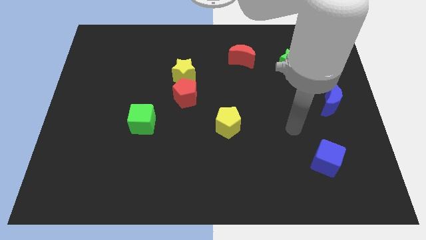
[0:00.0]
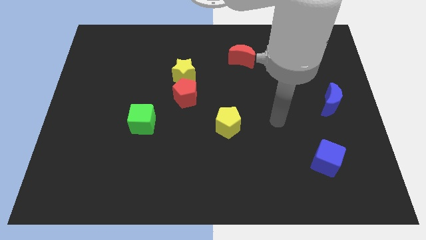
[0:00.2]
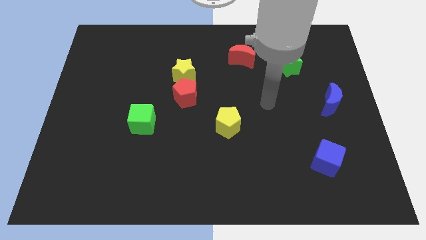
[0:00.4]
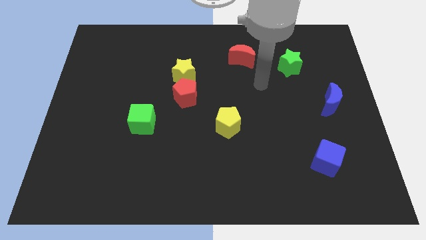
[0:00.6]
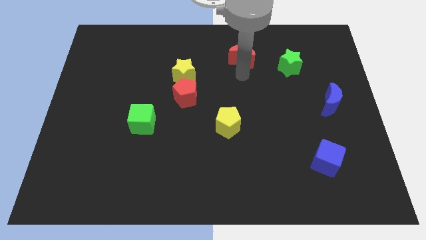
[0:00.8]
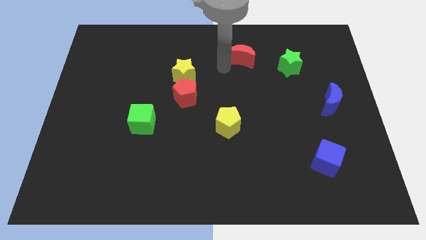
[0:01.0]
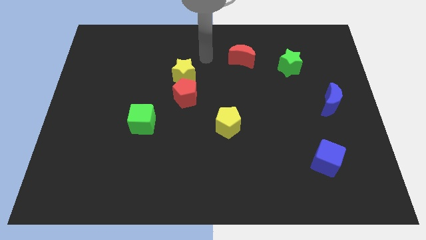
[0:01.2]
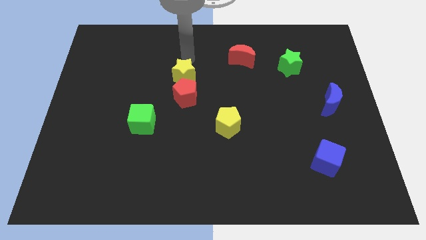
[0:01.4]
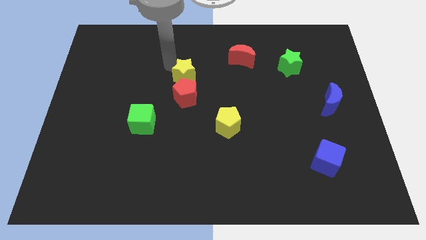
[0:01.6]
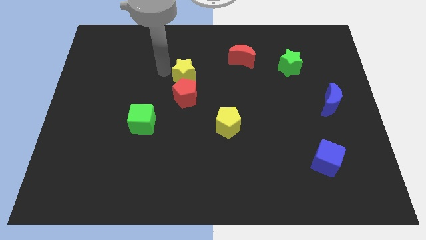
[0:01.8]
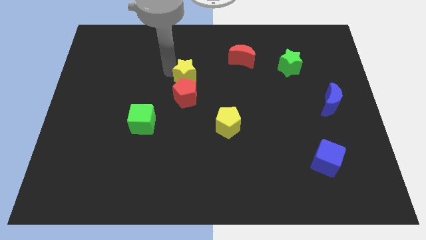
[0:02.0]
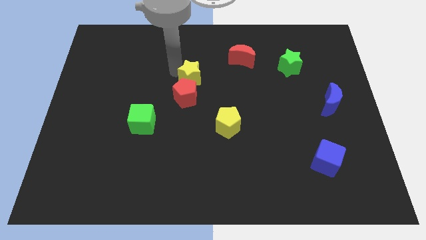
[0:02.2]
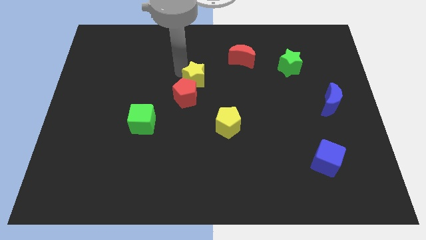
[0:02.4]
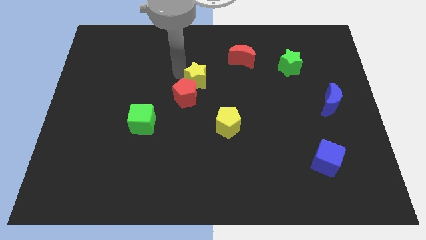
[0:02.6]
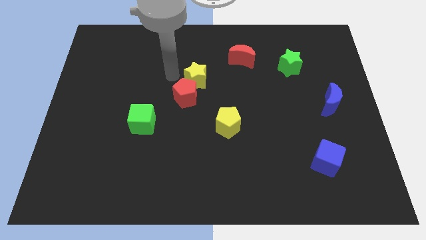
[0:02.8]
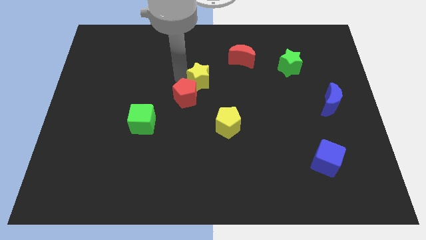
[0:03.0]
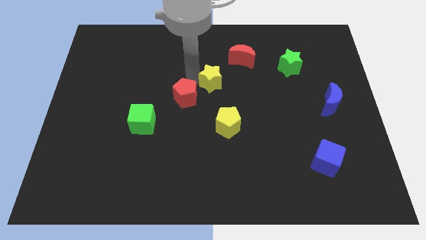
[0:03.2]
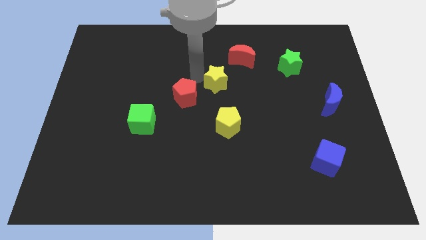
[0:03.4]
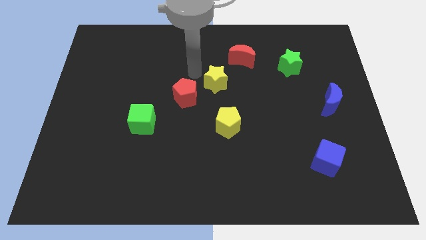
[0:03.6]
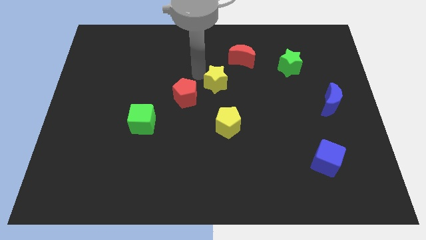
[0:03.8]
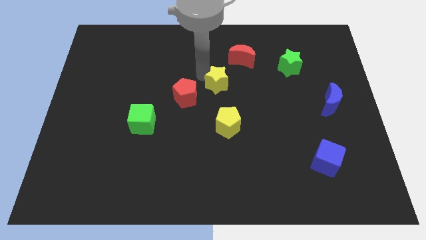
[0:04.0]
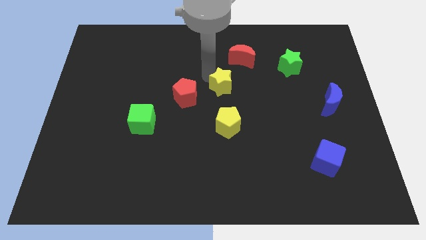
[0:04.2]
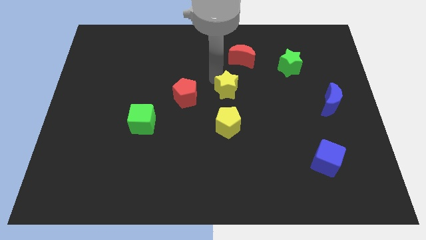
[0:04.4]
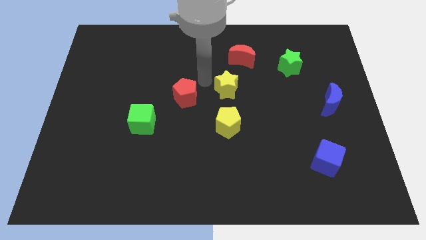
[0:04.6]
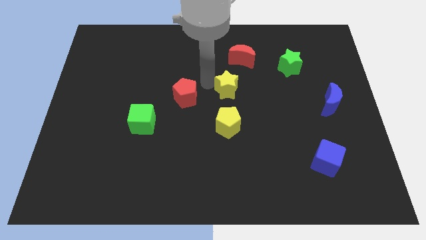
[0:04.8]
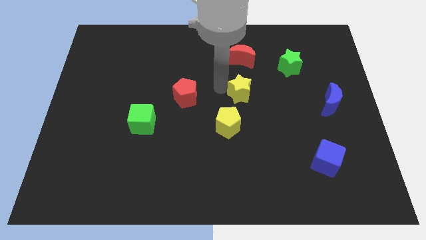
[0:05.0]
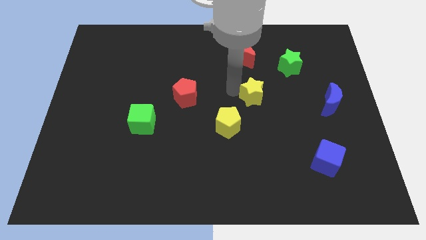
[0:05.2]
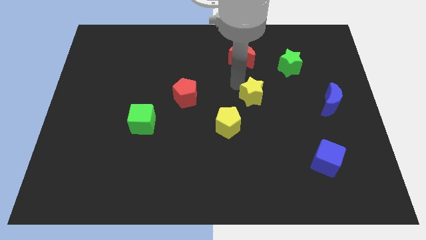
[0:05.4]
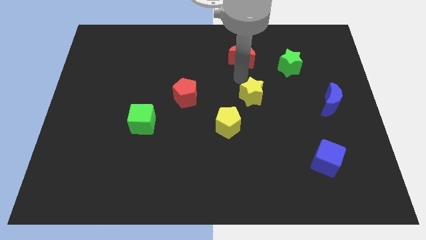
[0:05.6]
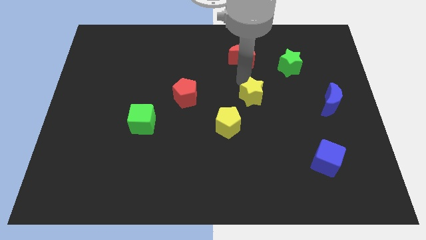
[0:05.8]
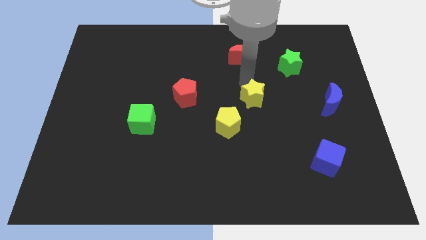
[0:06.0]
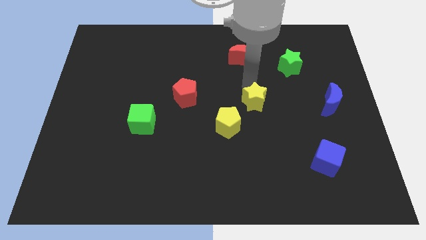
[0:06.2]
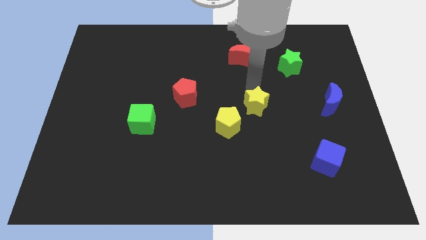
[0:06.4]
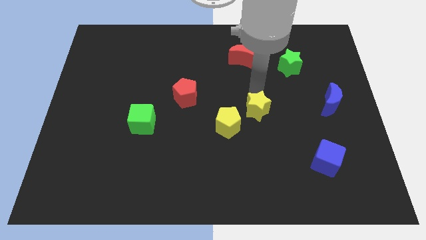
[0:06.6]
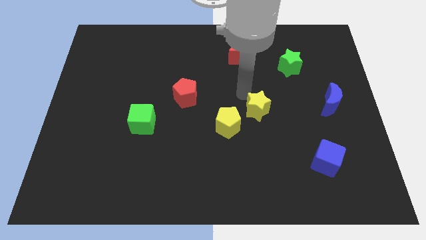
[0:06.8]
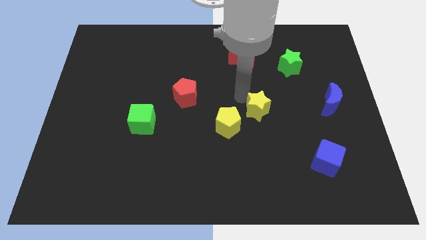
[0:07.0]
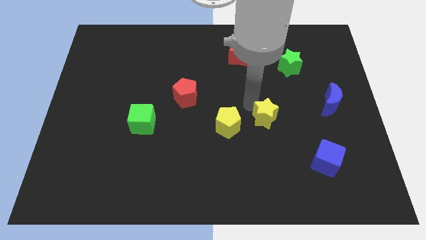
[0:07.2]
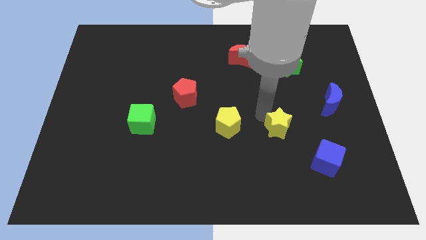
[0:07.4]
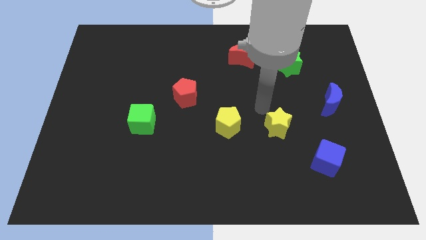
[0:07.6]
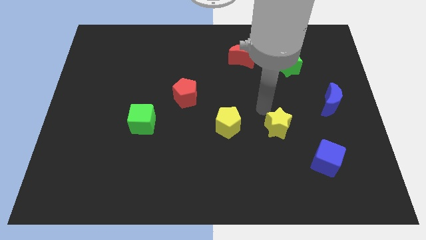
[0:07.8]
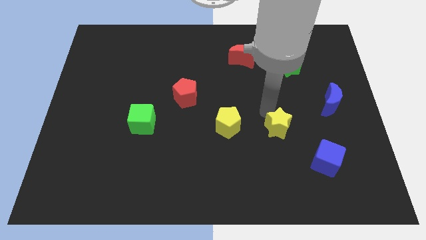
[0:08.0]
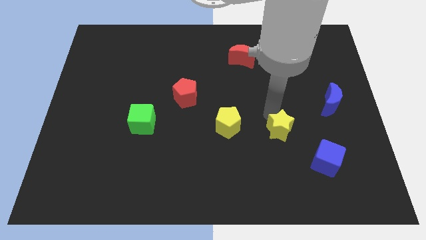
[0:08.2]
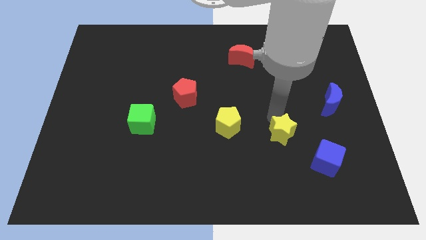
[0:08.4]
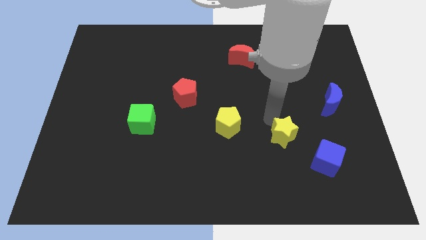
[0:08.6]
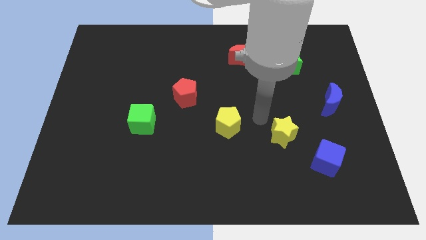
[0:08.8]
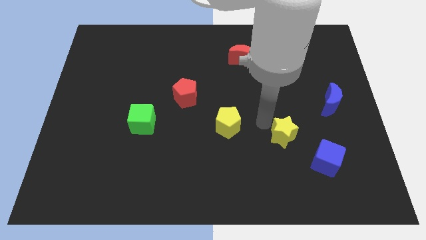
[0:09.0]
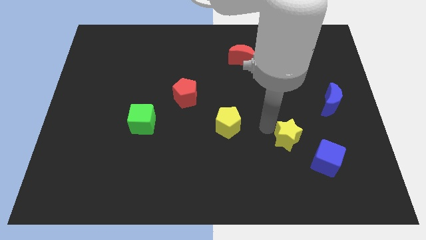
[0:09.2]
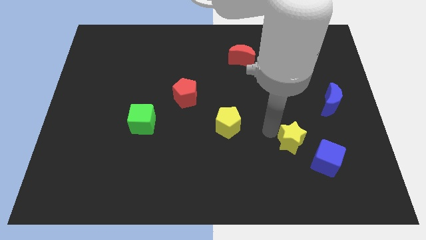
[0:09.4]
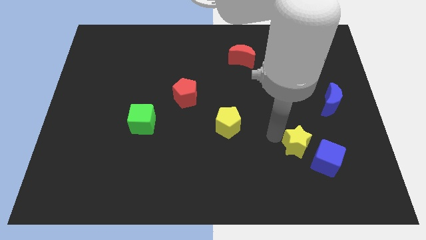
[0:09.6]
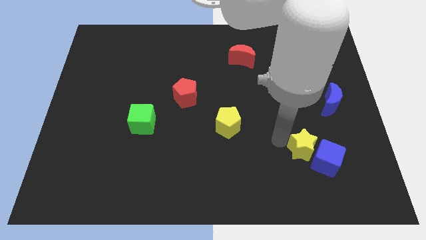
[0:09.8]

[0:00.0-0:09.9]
slide the yellow star towards the blue cube

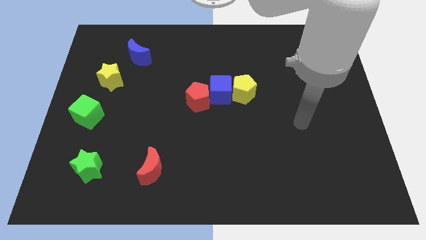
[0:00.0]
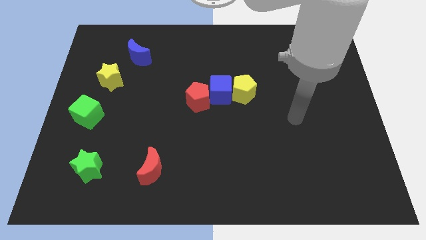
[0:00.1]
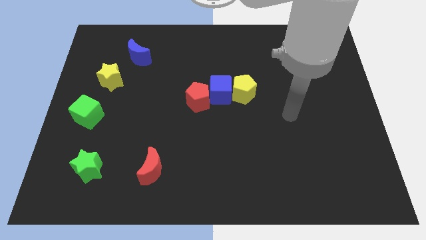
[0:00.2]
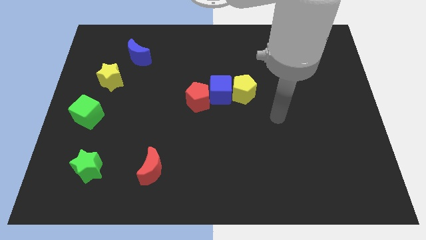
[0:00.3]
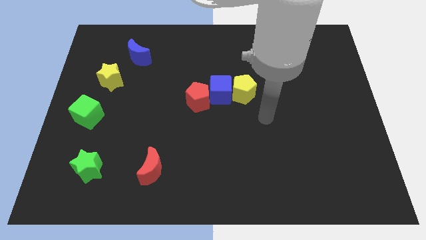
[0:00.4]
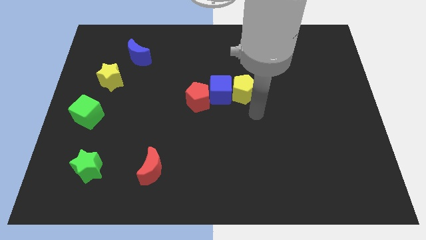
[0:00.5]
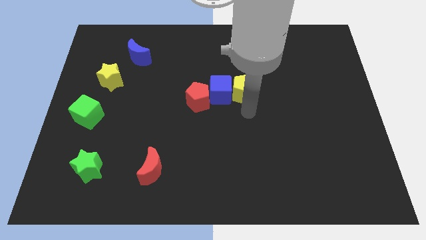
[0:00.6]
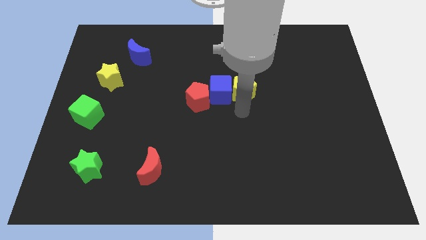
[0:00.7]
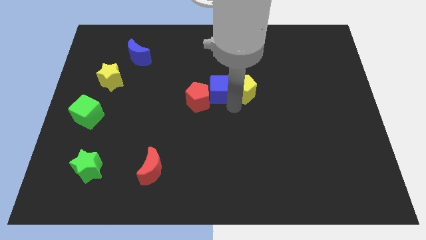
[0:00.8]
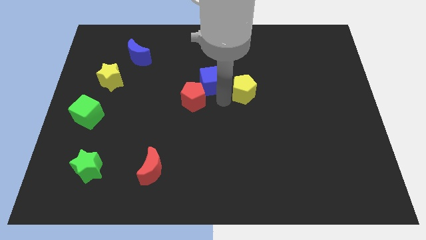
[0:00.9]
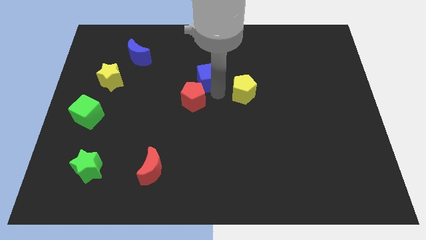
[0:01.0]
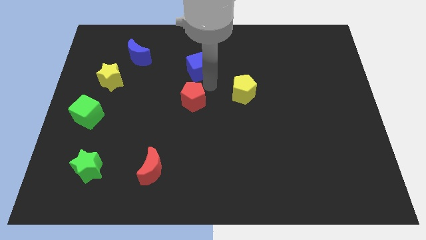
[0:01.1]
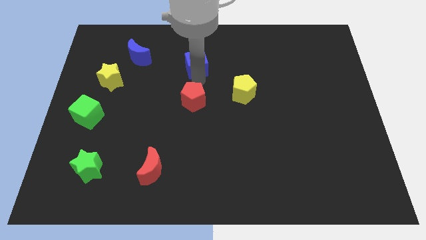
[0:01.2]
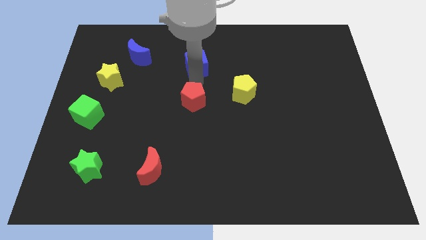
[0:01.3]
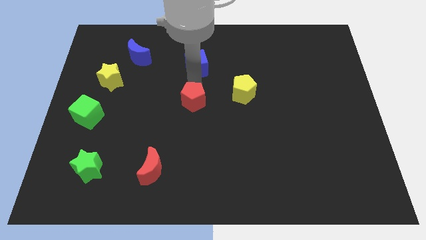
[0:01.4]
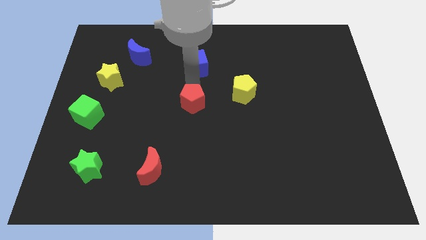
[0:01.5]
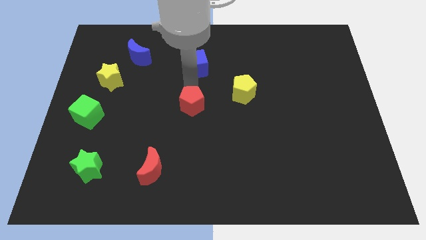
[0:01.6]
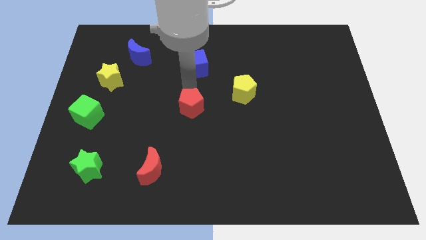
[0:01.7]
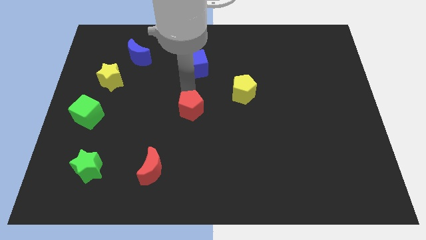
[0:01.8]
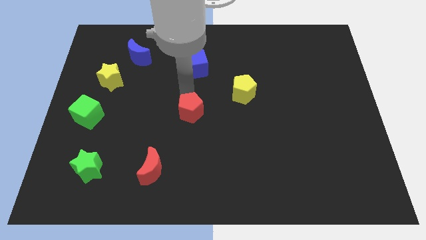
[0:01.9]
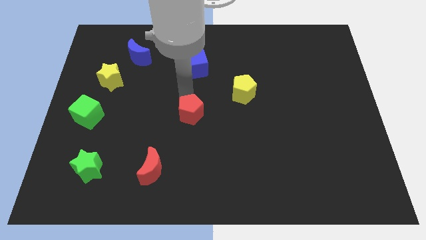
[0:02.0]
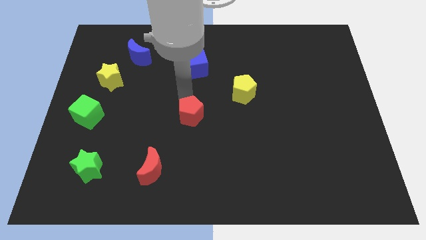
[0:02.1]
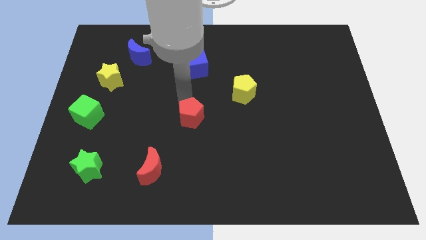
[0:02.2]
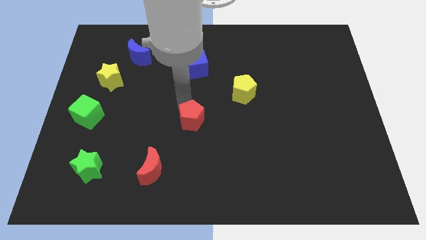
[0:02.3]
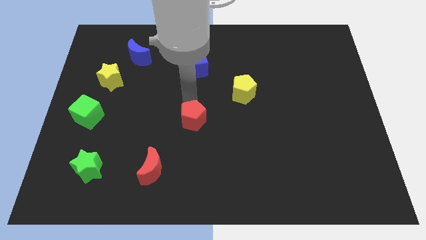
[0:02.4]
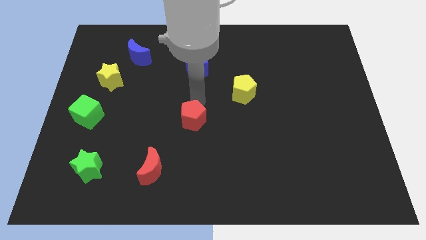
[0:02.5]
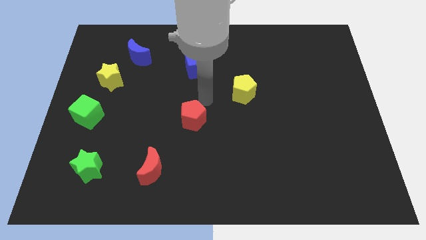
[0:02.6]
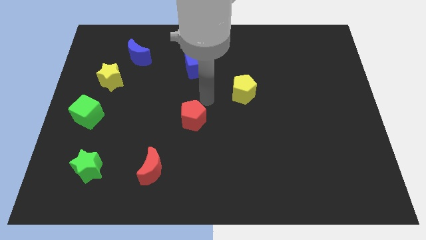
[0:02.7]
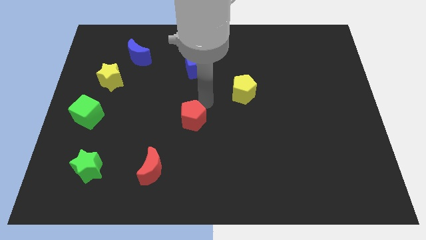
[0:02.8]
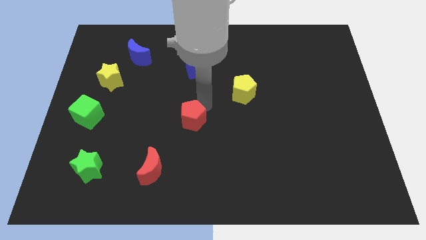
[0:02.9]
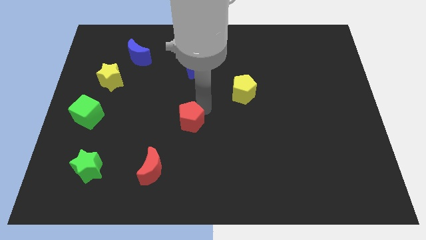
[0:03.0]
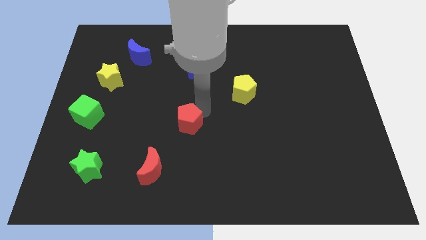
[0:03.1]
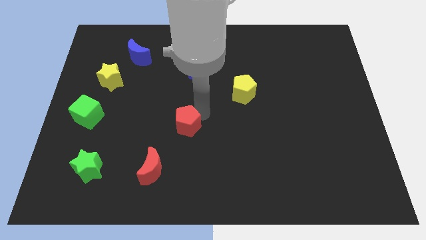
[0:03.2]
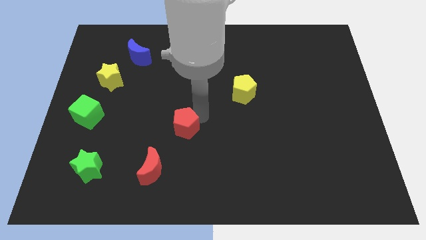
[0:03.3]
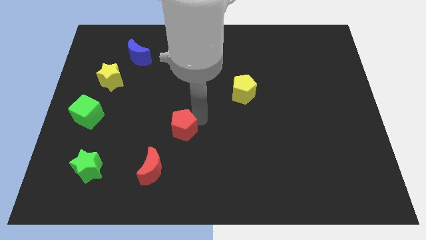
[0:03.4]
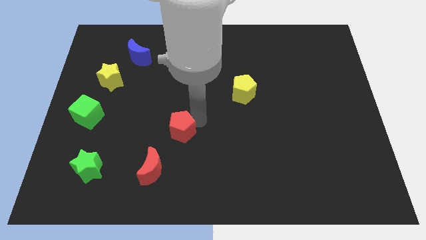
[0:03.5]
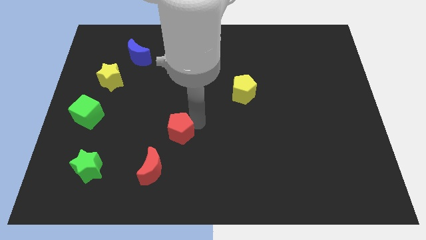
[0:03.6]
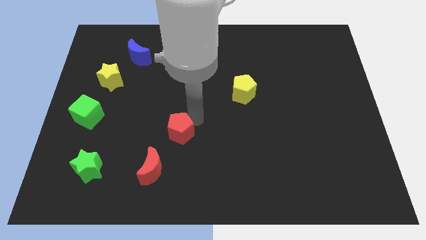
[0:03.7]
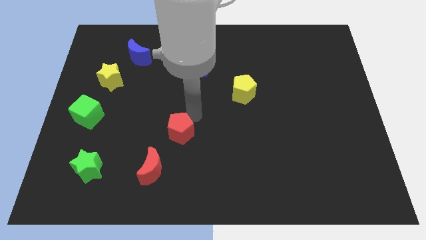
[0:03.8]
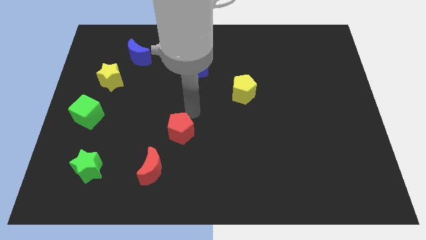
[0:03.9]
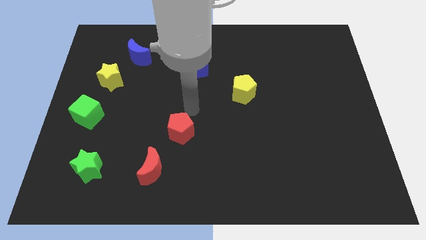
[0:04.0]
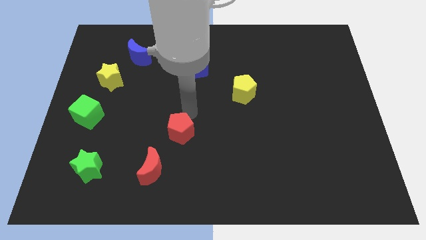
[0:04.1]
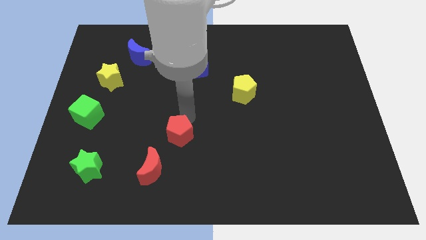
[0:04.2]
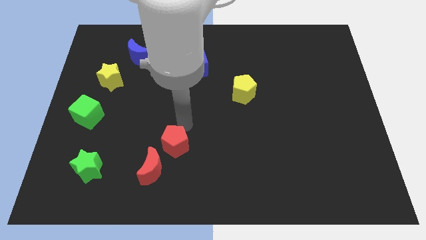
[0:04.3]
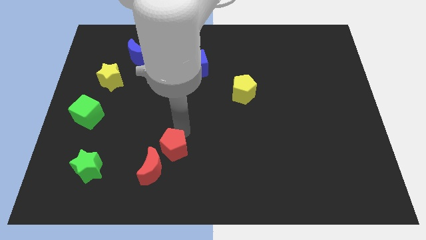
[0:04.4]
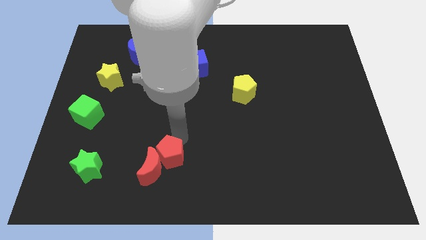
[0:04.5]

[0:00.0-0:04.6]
push the red pentagon close to the red moon
